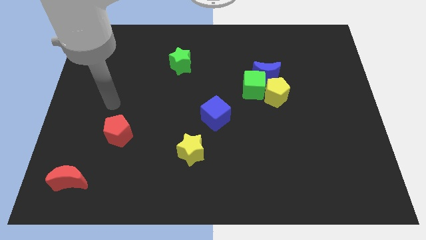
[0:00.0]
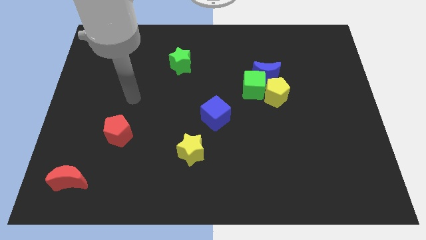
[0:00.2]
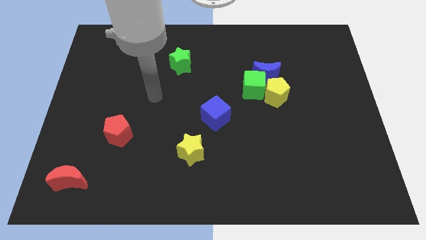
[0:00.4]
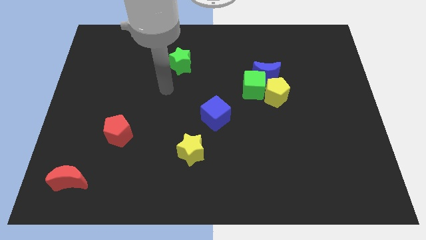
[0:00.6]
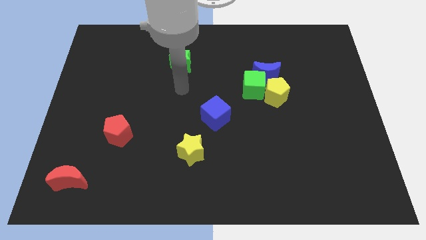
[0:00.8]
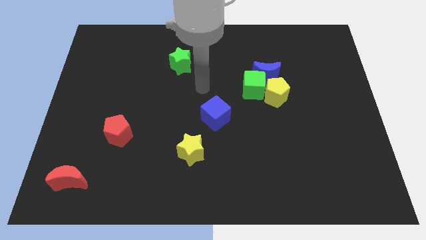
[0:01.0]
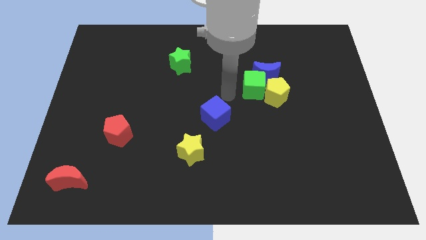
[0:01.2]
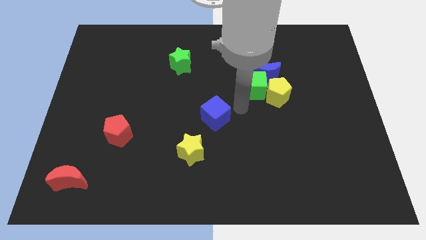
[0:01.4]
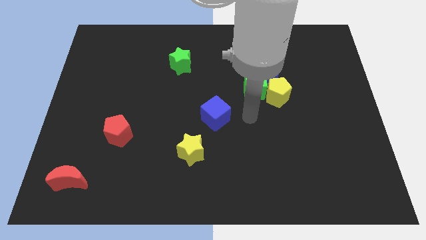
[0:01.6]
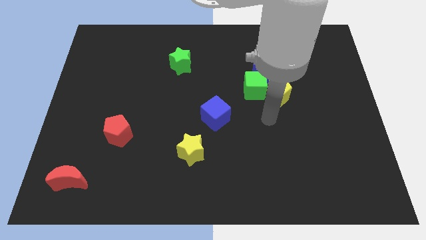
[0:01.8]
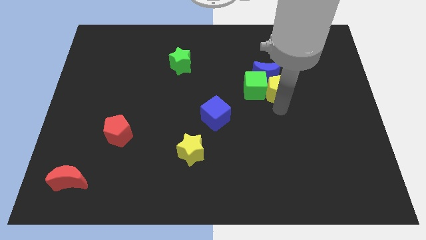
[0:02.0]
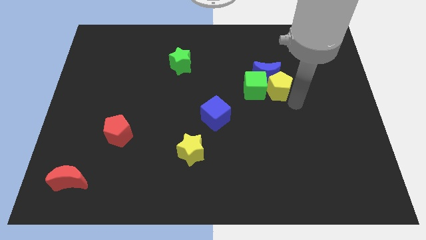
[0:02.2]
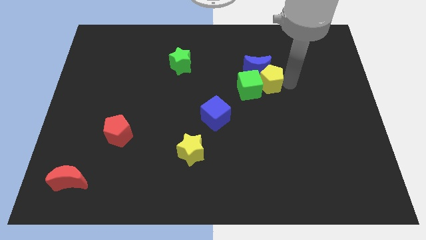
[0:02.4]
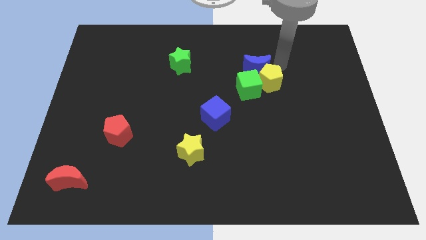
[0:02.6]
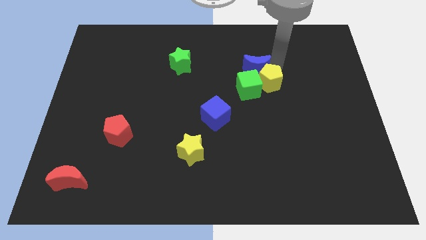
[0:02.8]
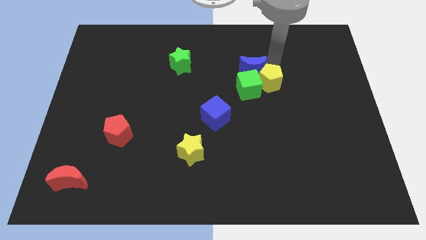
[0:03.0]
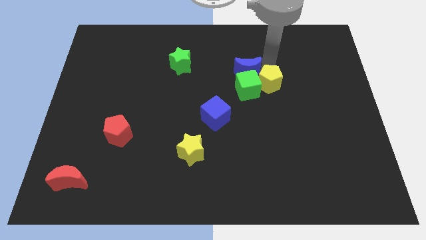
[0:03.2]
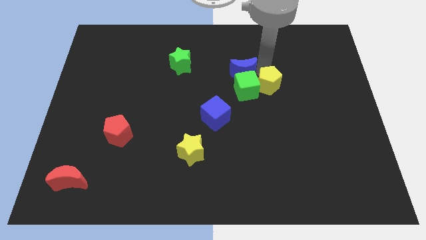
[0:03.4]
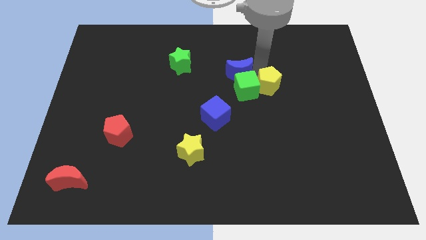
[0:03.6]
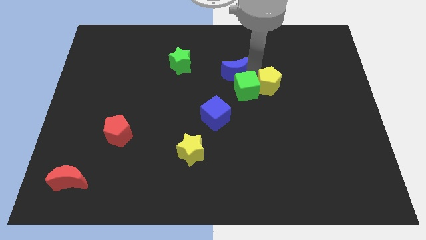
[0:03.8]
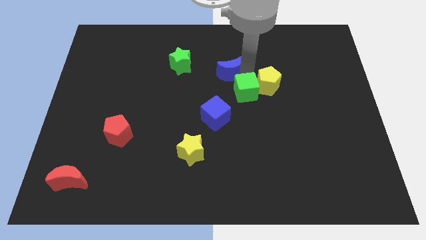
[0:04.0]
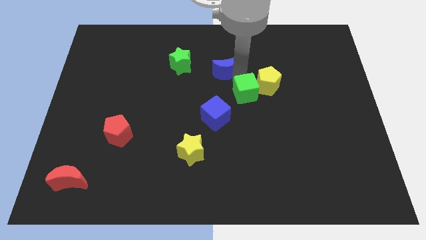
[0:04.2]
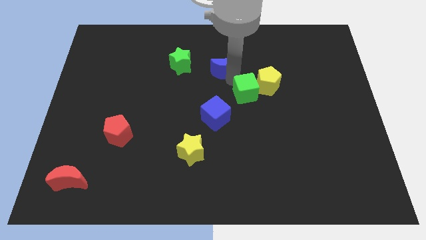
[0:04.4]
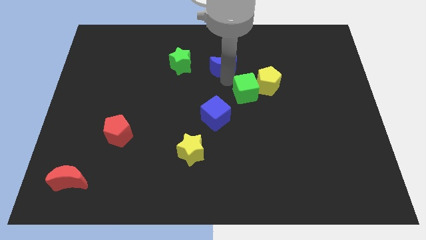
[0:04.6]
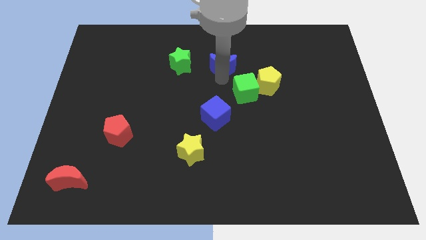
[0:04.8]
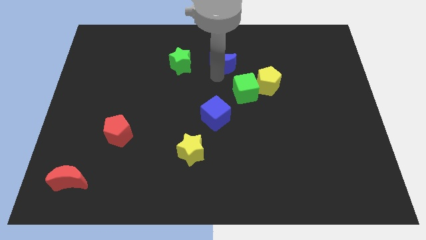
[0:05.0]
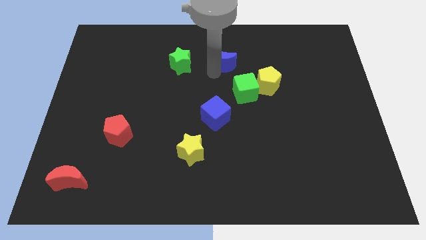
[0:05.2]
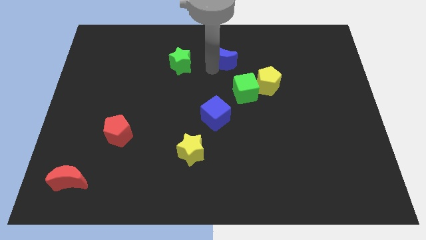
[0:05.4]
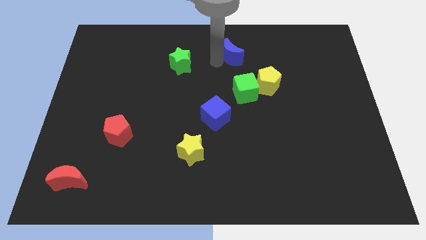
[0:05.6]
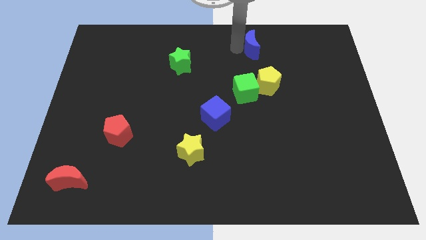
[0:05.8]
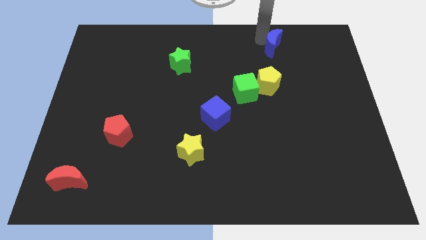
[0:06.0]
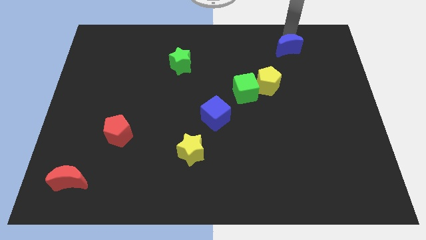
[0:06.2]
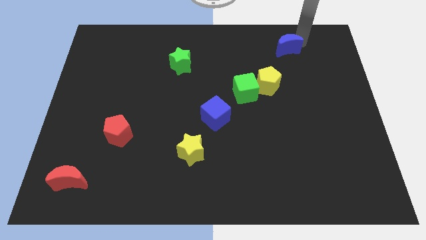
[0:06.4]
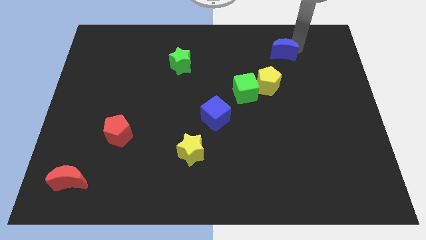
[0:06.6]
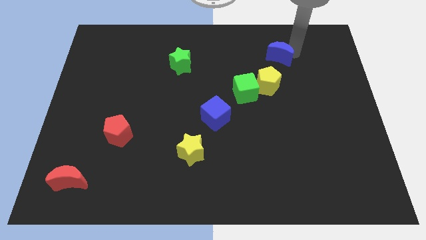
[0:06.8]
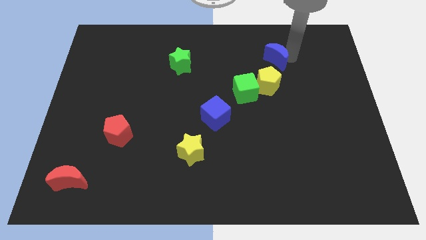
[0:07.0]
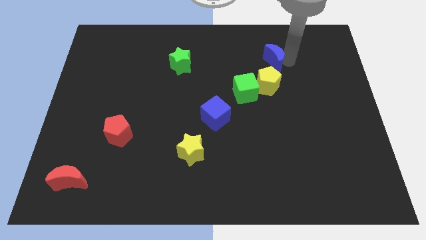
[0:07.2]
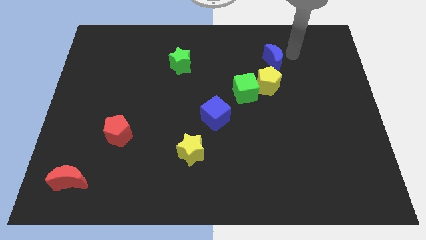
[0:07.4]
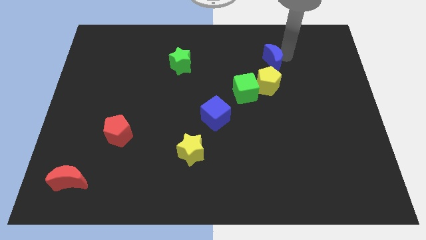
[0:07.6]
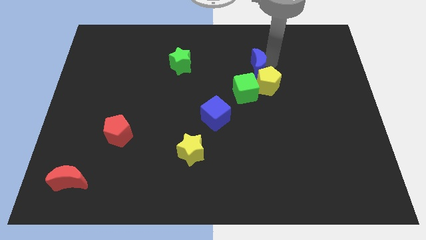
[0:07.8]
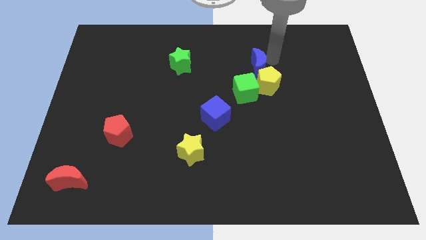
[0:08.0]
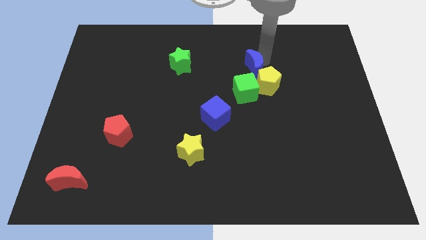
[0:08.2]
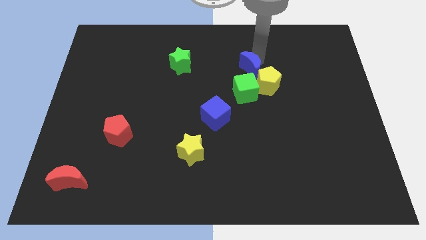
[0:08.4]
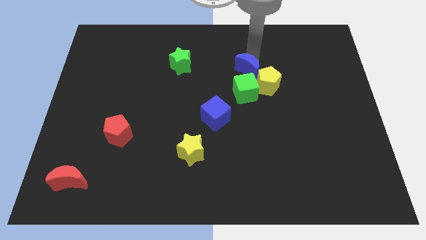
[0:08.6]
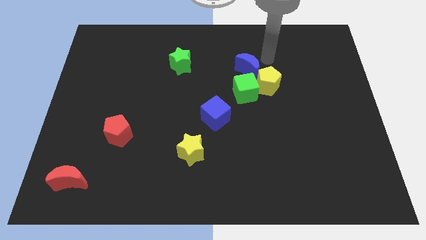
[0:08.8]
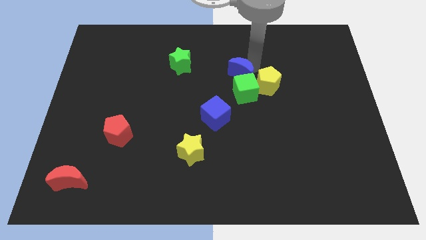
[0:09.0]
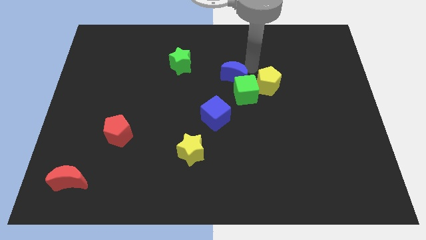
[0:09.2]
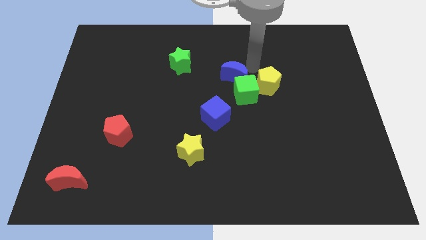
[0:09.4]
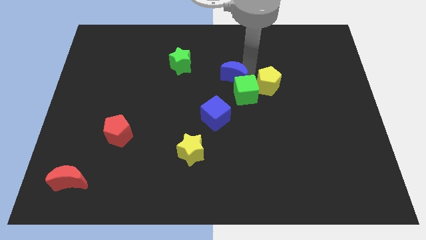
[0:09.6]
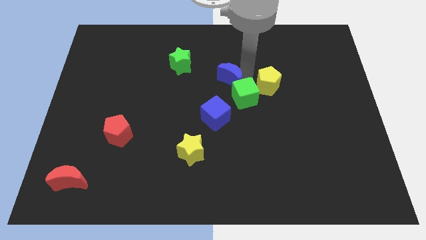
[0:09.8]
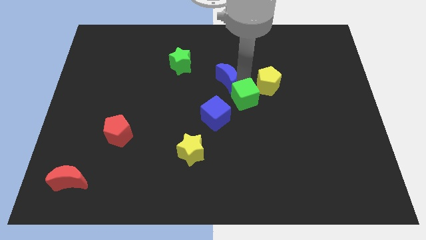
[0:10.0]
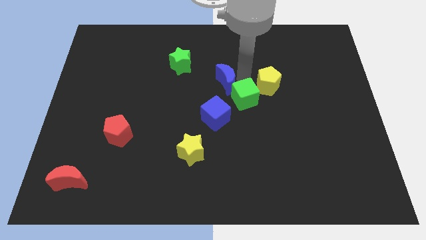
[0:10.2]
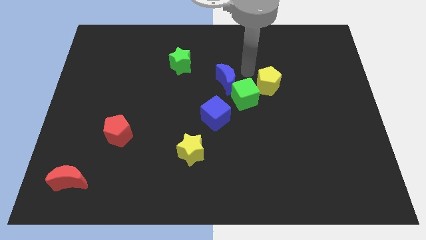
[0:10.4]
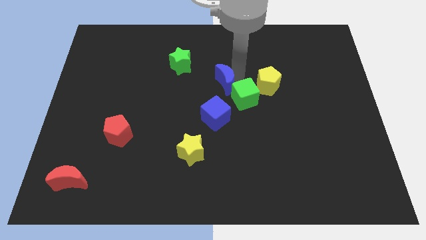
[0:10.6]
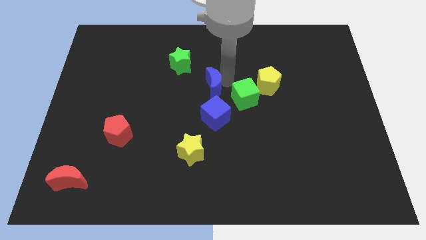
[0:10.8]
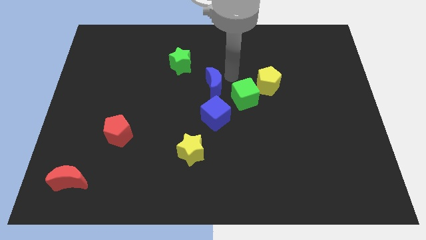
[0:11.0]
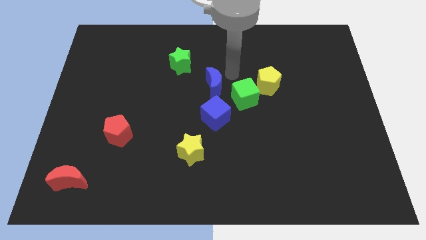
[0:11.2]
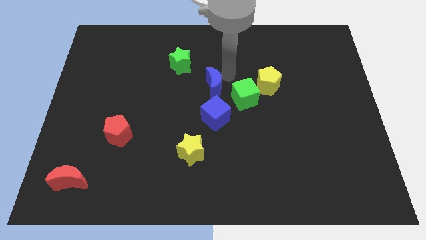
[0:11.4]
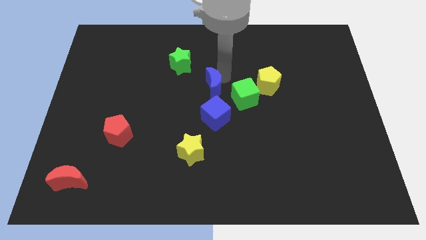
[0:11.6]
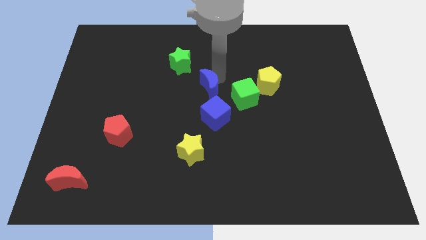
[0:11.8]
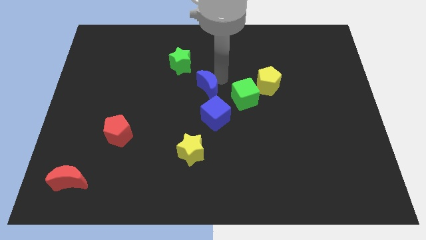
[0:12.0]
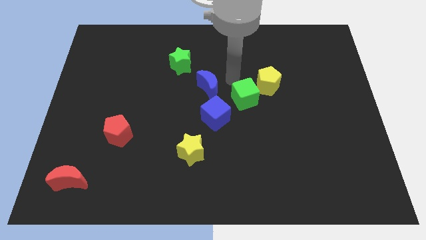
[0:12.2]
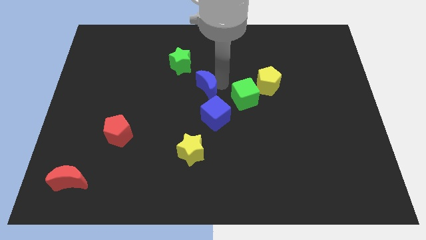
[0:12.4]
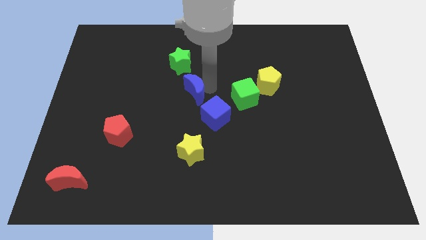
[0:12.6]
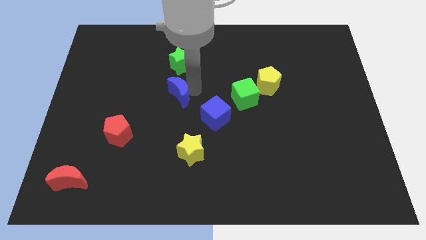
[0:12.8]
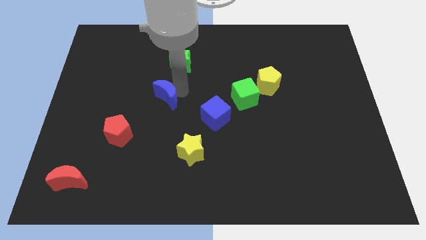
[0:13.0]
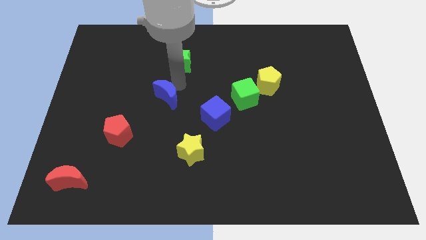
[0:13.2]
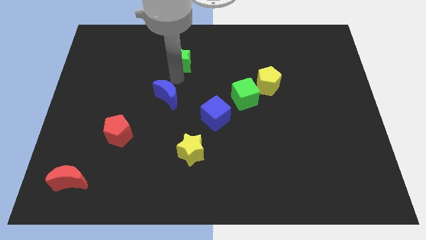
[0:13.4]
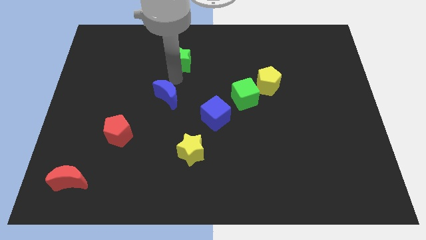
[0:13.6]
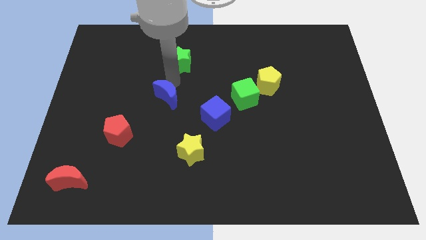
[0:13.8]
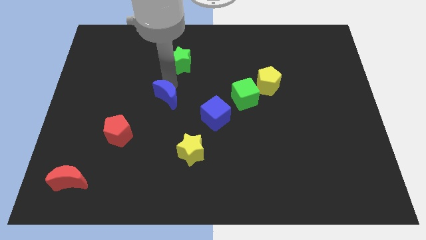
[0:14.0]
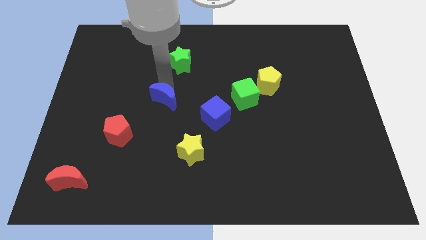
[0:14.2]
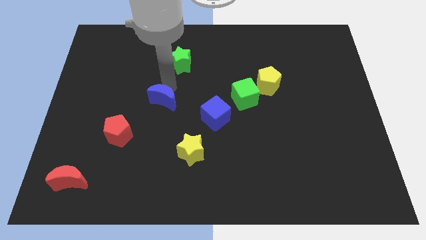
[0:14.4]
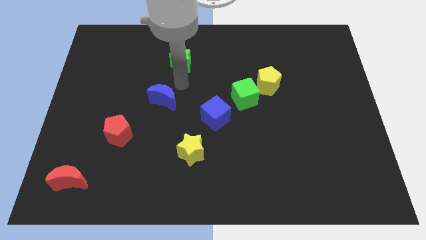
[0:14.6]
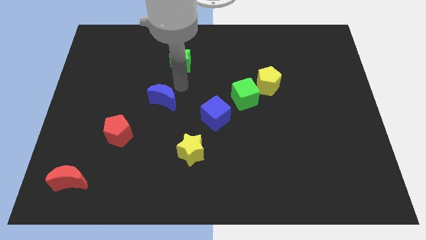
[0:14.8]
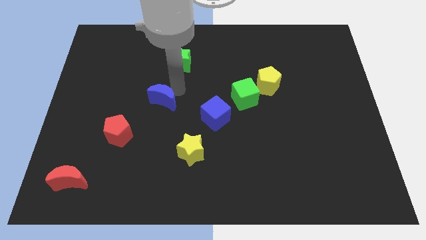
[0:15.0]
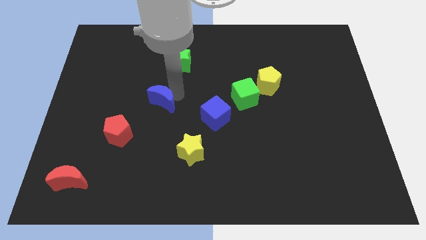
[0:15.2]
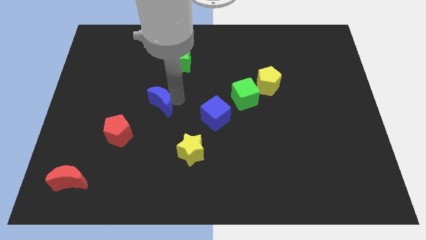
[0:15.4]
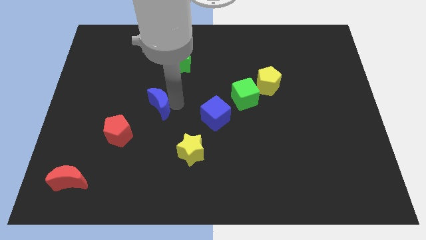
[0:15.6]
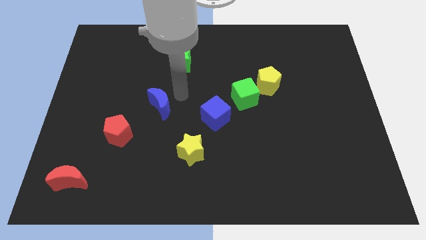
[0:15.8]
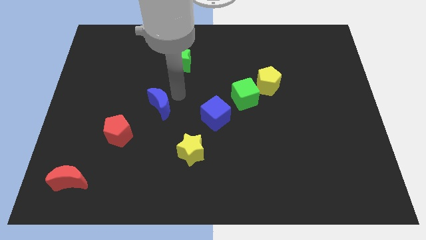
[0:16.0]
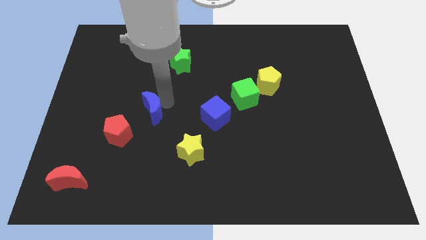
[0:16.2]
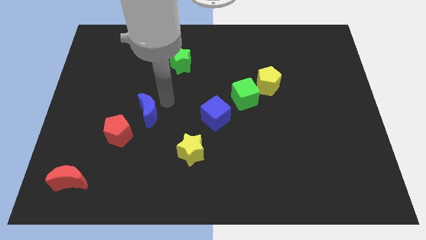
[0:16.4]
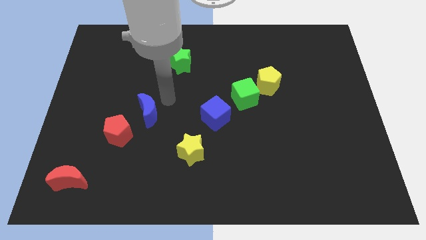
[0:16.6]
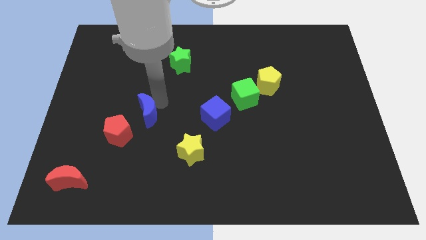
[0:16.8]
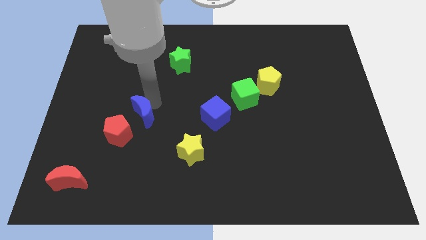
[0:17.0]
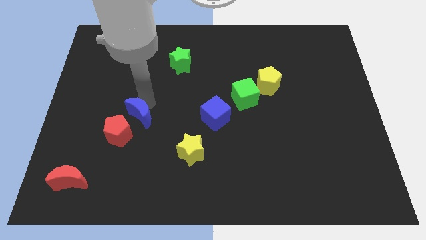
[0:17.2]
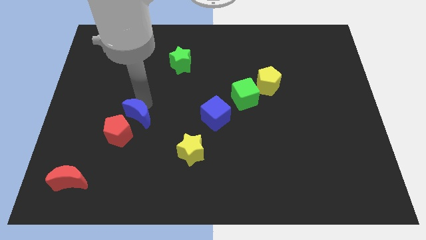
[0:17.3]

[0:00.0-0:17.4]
put the blue moon towards the red pentagon
